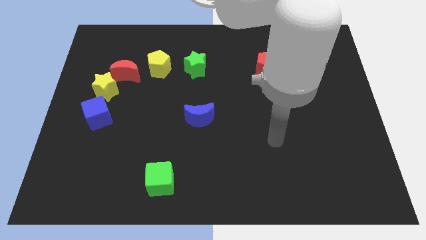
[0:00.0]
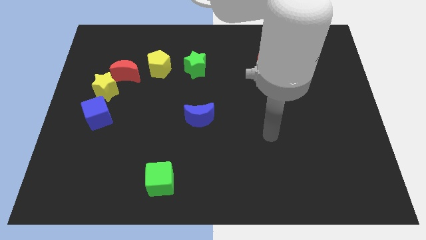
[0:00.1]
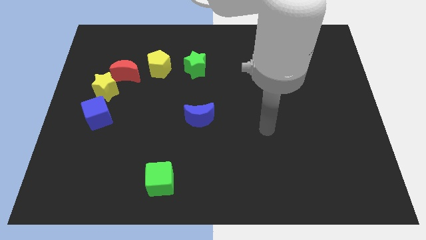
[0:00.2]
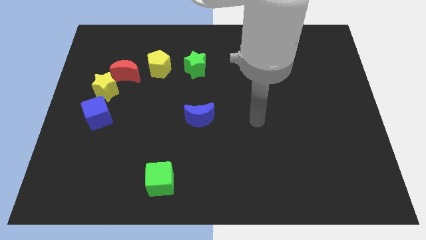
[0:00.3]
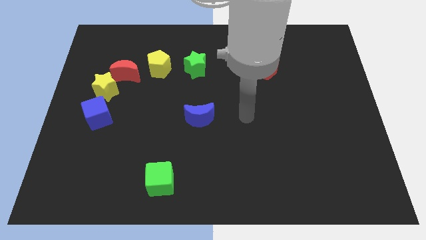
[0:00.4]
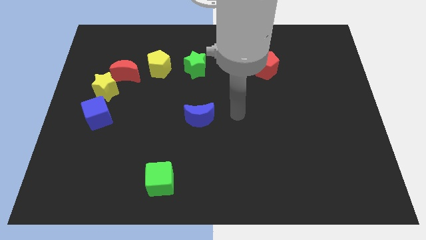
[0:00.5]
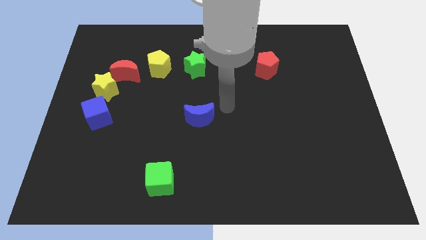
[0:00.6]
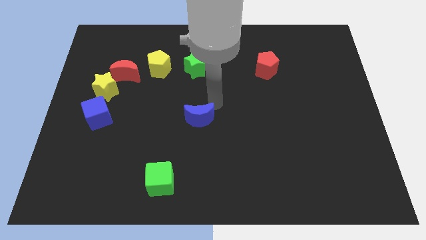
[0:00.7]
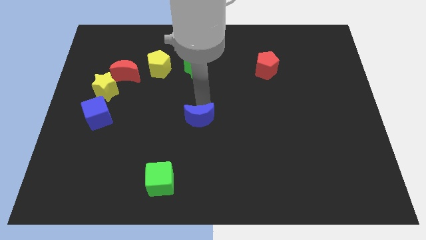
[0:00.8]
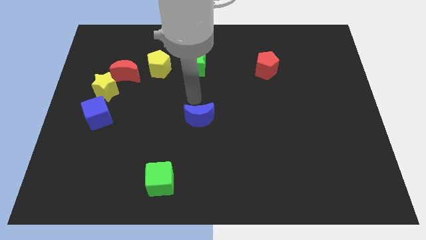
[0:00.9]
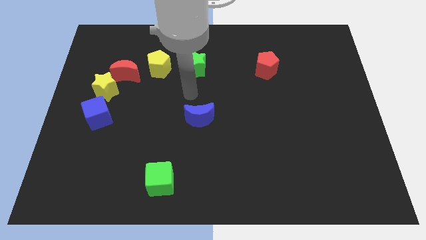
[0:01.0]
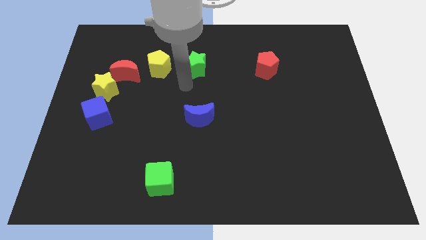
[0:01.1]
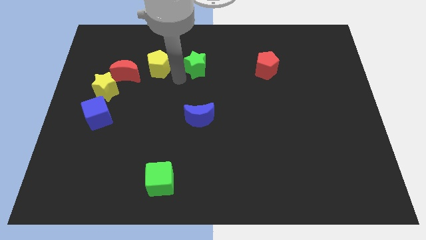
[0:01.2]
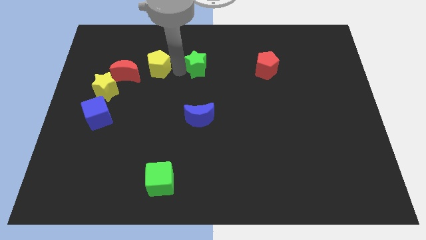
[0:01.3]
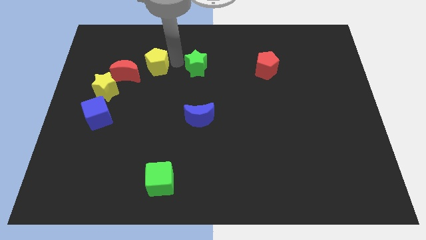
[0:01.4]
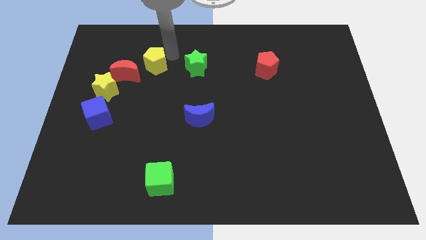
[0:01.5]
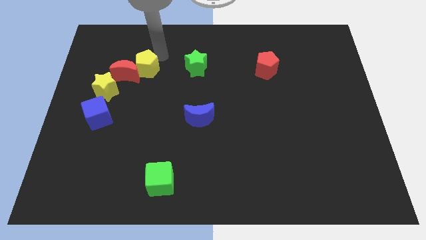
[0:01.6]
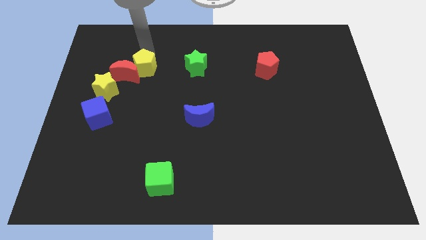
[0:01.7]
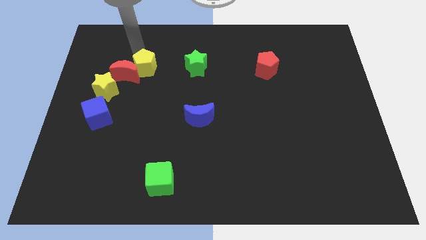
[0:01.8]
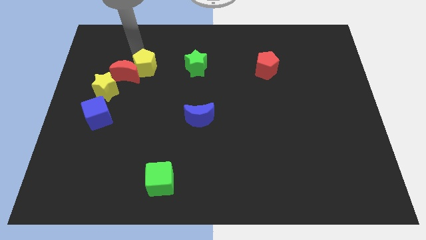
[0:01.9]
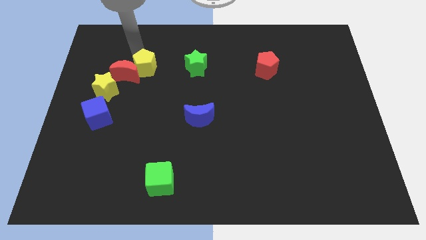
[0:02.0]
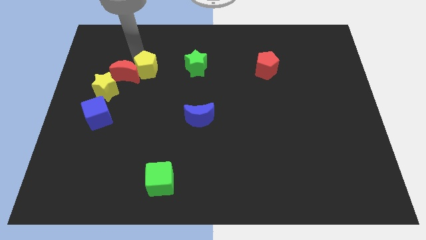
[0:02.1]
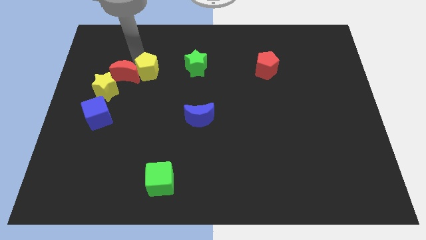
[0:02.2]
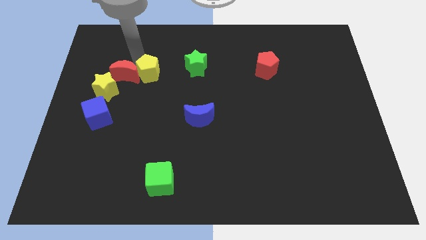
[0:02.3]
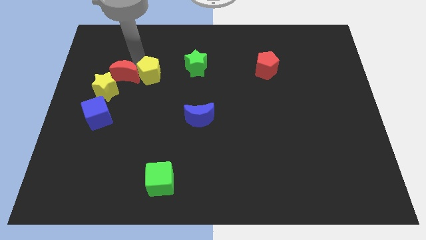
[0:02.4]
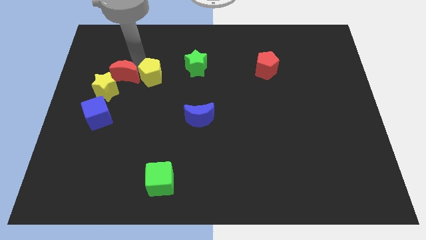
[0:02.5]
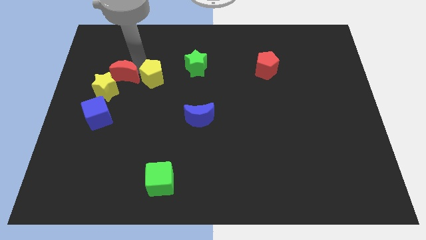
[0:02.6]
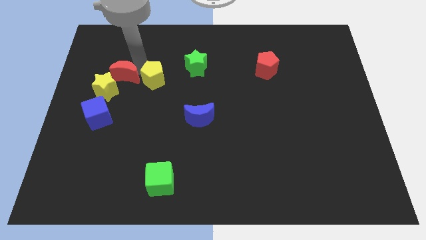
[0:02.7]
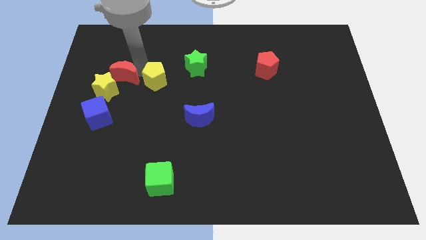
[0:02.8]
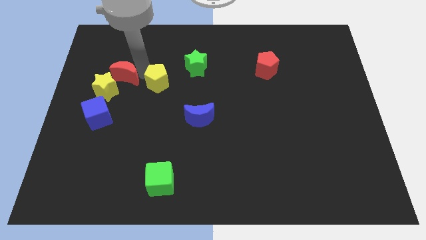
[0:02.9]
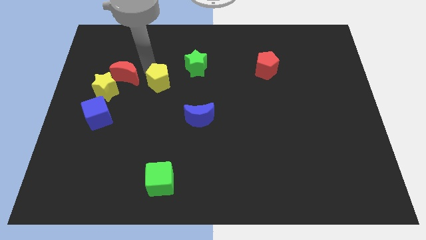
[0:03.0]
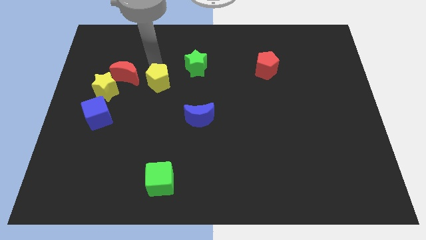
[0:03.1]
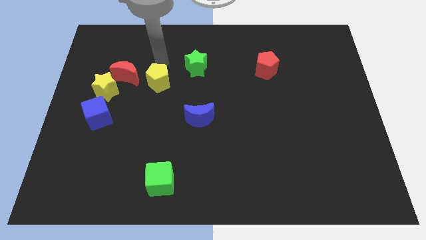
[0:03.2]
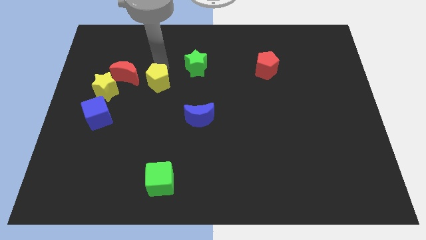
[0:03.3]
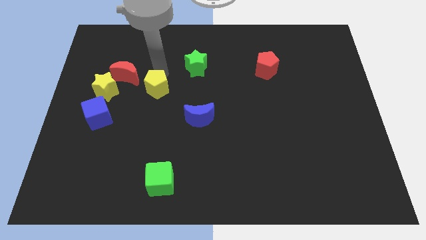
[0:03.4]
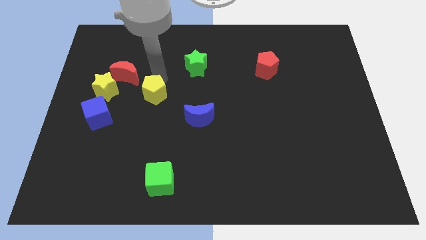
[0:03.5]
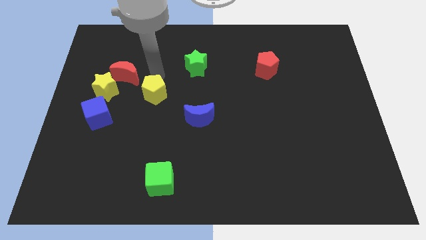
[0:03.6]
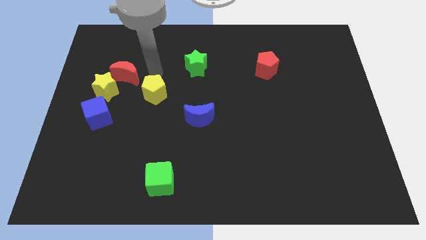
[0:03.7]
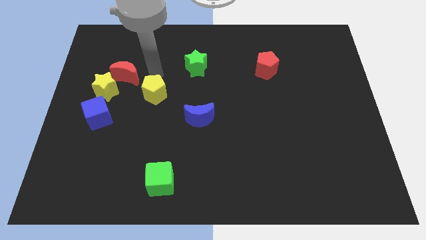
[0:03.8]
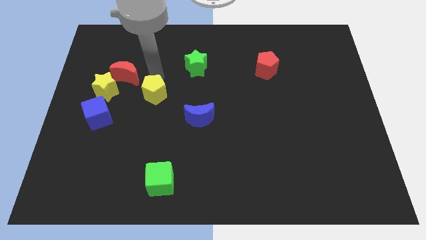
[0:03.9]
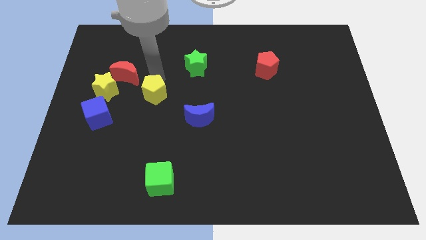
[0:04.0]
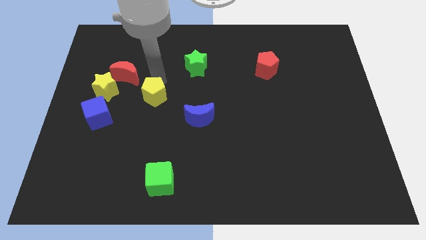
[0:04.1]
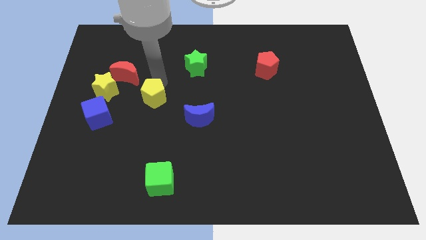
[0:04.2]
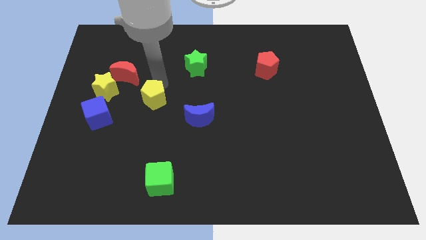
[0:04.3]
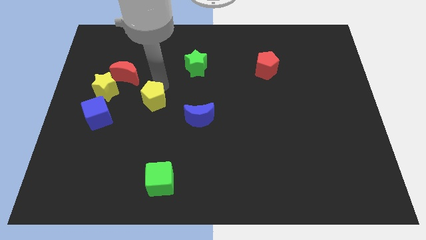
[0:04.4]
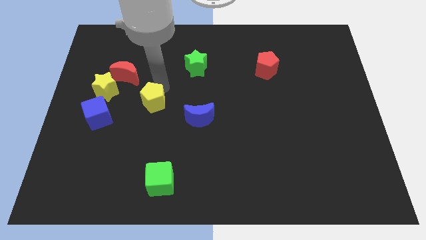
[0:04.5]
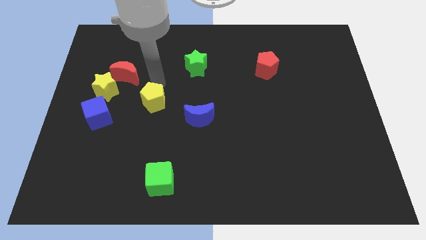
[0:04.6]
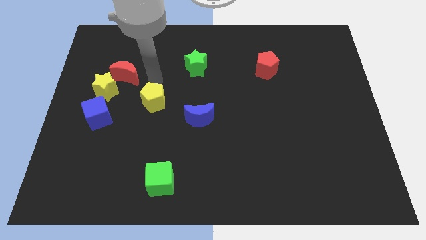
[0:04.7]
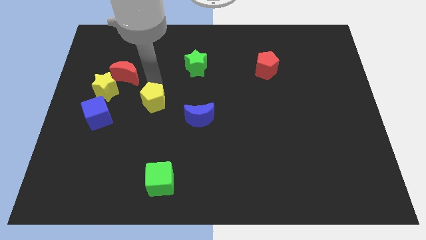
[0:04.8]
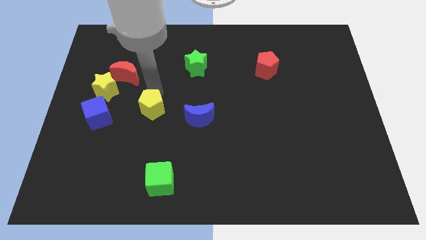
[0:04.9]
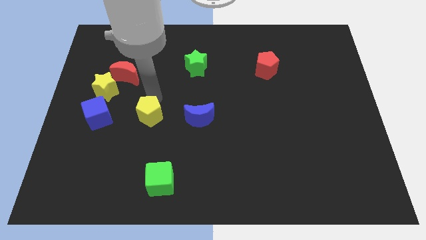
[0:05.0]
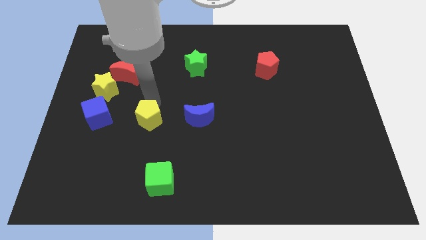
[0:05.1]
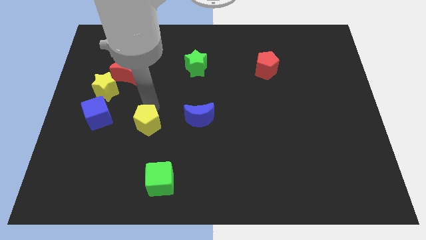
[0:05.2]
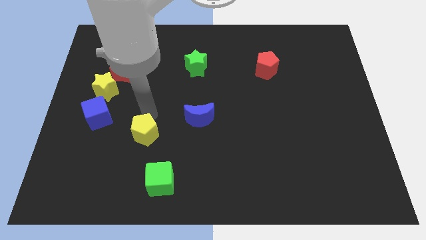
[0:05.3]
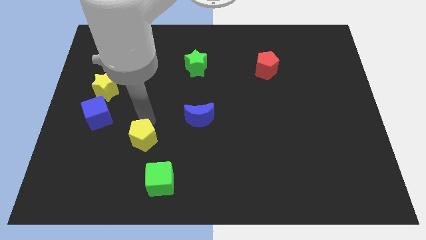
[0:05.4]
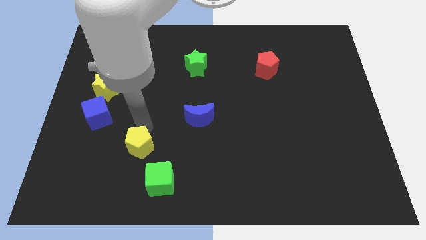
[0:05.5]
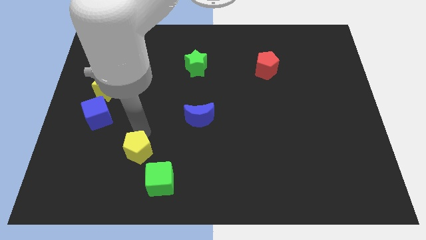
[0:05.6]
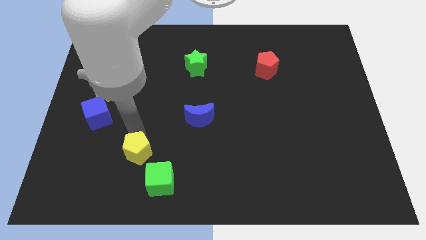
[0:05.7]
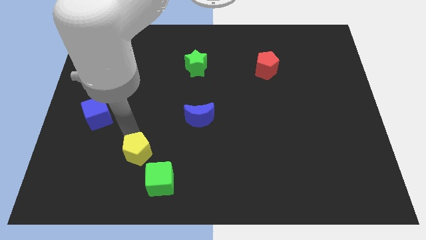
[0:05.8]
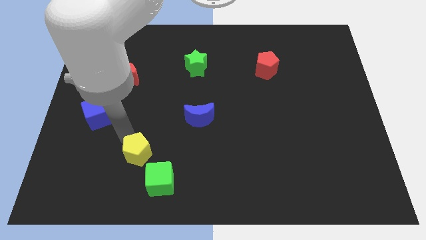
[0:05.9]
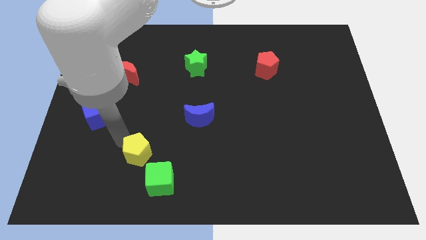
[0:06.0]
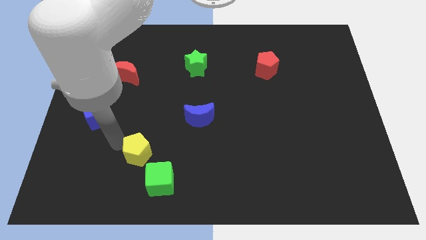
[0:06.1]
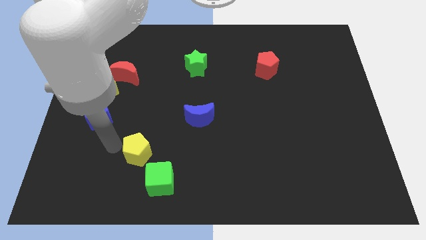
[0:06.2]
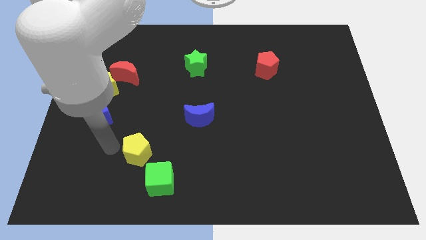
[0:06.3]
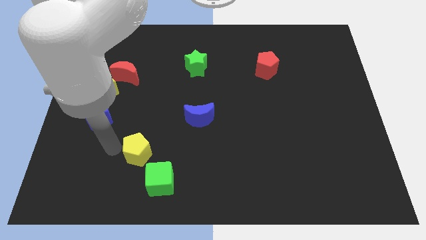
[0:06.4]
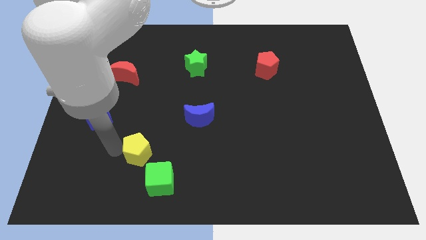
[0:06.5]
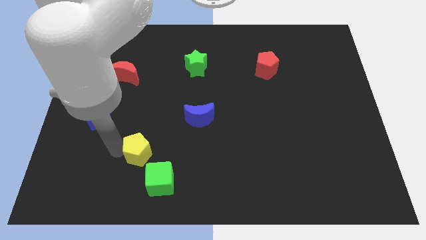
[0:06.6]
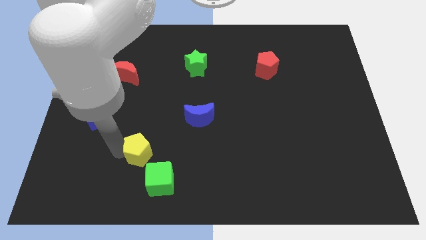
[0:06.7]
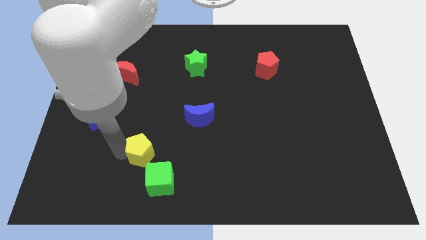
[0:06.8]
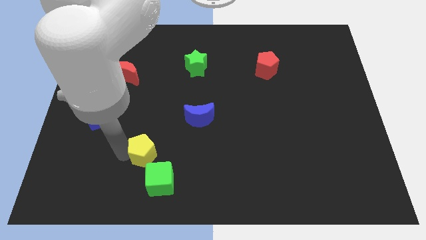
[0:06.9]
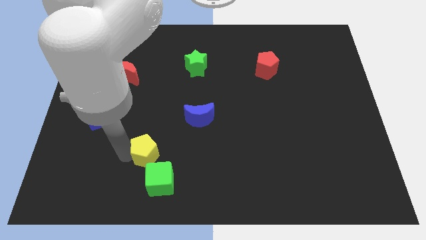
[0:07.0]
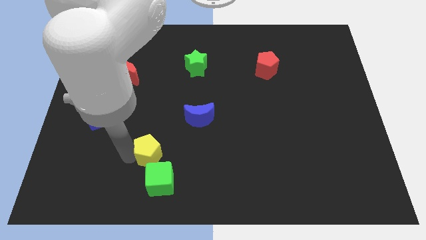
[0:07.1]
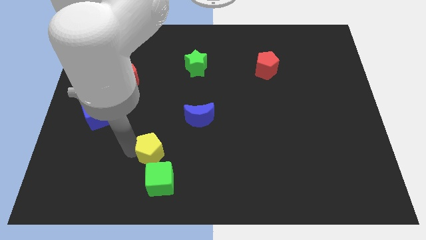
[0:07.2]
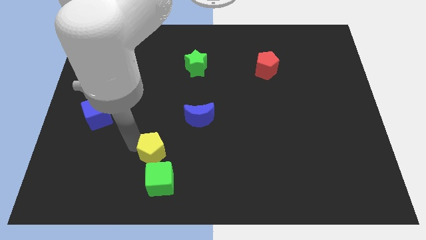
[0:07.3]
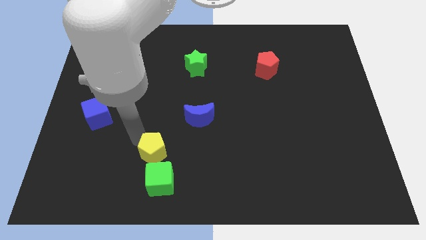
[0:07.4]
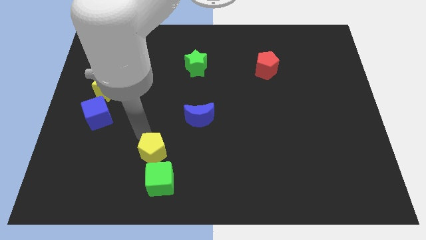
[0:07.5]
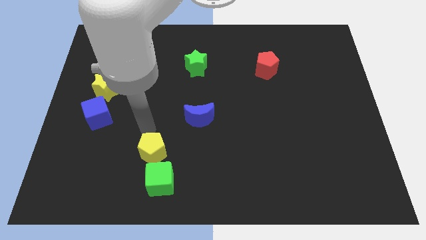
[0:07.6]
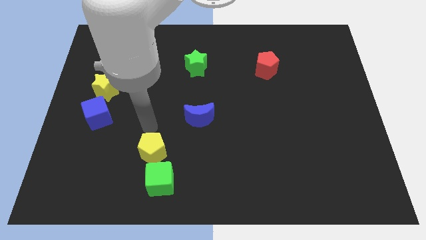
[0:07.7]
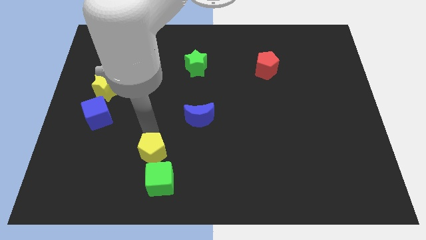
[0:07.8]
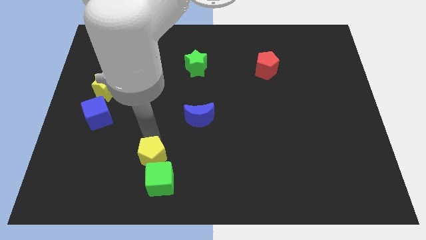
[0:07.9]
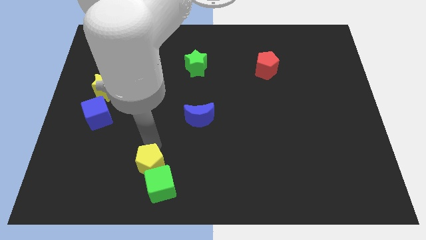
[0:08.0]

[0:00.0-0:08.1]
push the yellow pentagon next to the green cube
